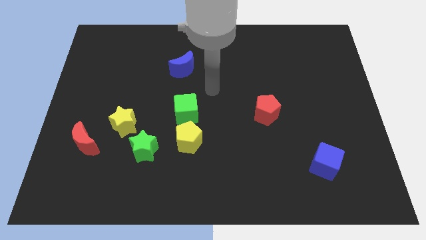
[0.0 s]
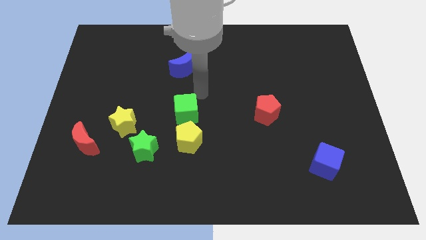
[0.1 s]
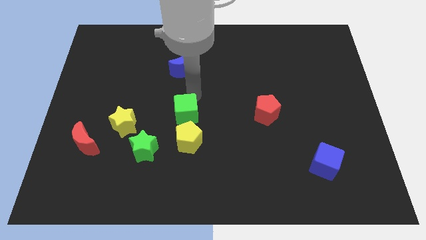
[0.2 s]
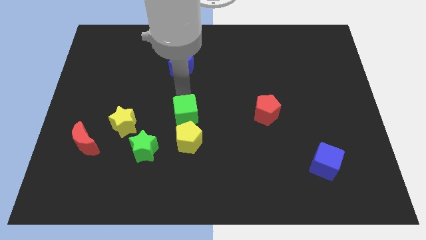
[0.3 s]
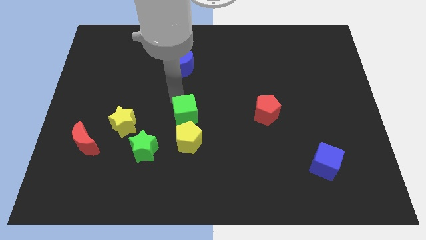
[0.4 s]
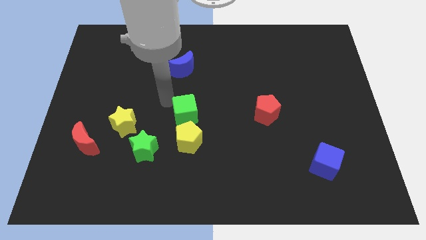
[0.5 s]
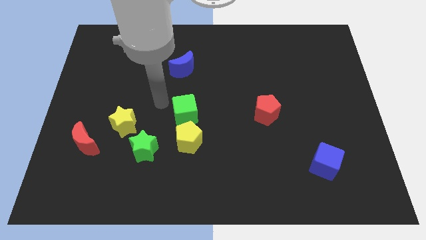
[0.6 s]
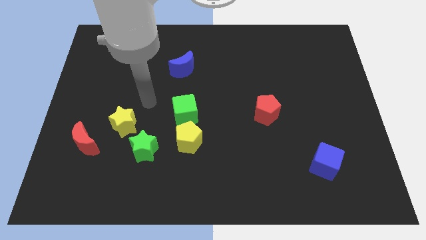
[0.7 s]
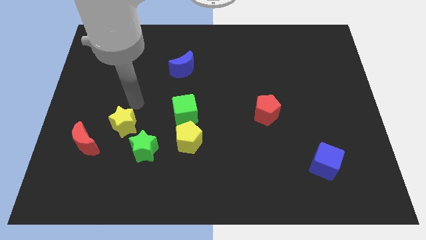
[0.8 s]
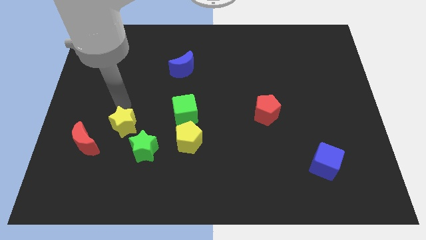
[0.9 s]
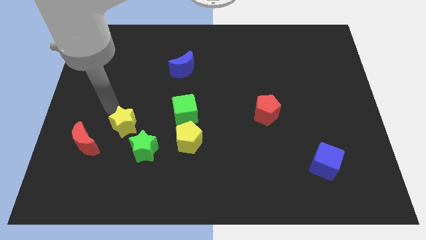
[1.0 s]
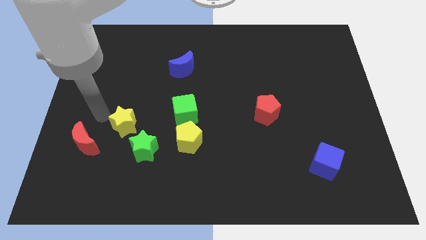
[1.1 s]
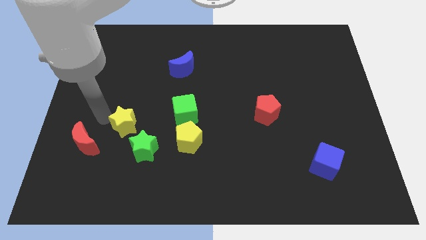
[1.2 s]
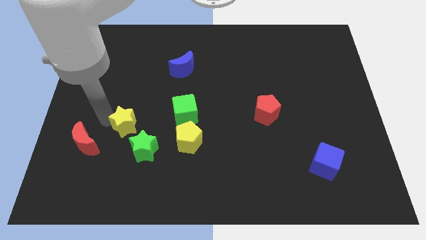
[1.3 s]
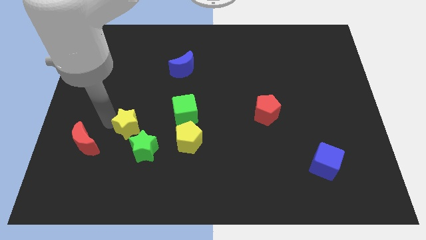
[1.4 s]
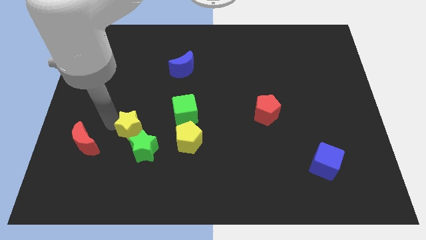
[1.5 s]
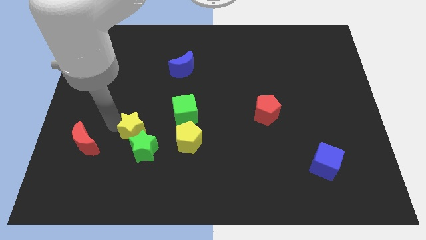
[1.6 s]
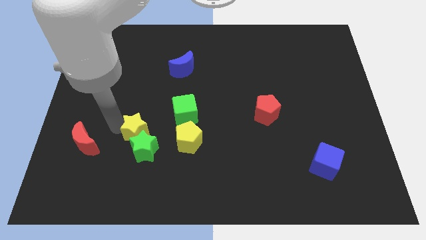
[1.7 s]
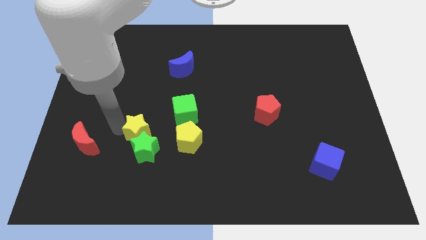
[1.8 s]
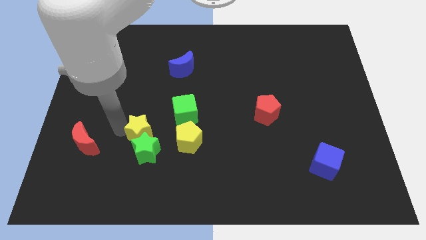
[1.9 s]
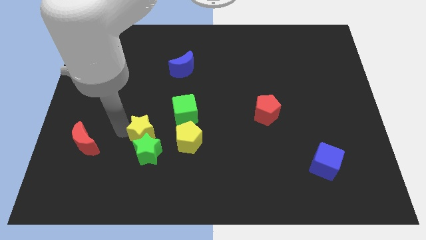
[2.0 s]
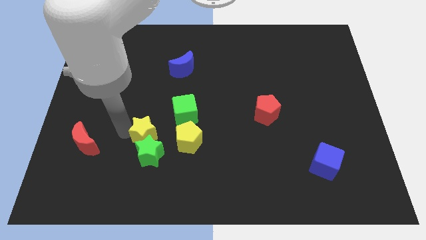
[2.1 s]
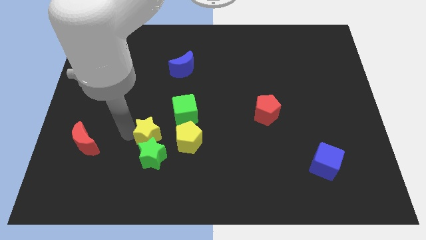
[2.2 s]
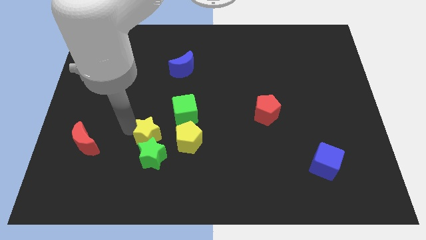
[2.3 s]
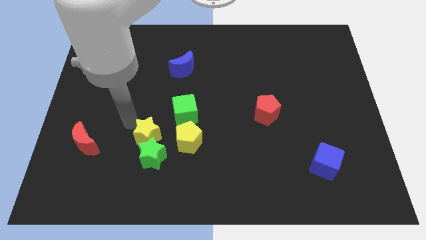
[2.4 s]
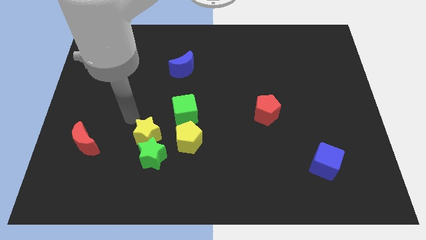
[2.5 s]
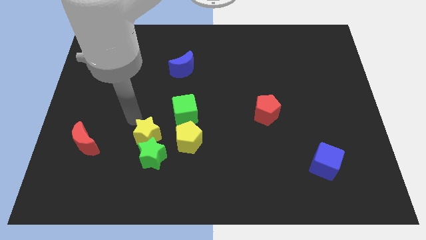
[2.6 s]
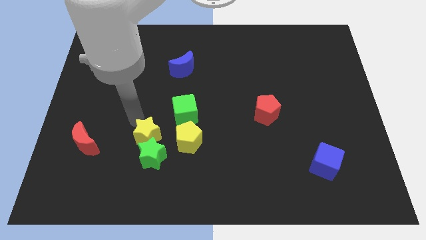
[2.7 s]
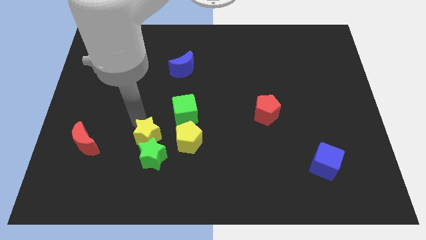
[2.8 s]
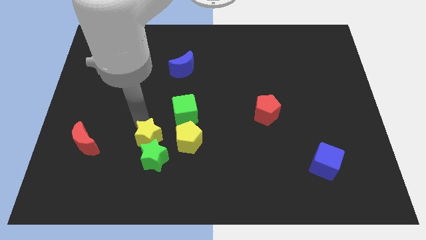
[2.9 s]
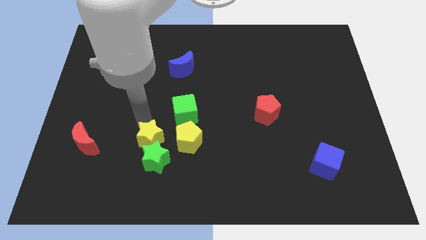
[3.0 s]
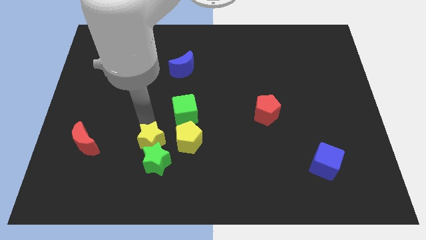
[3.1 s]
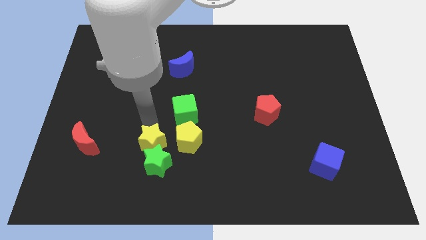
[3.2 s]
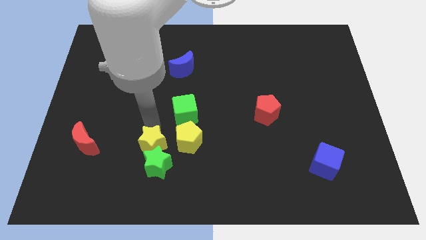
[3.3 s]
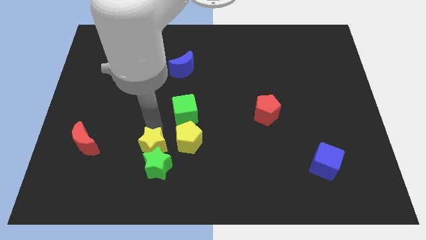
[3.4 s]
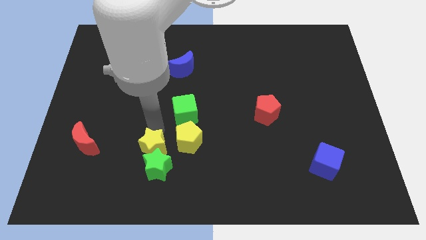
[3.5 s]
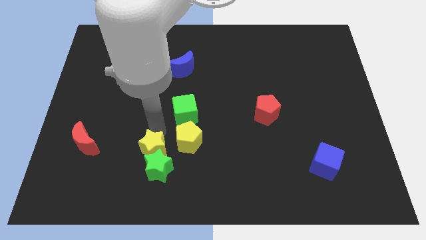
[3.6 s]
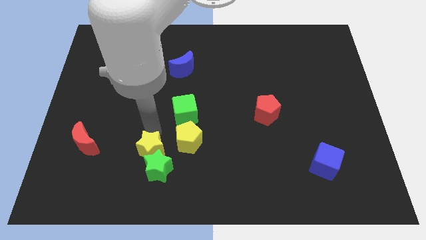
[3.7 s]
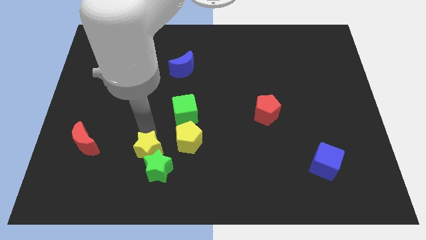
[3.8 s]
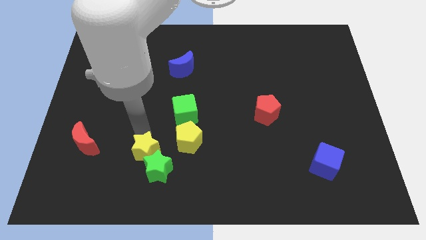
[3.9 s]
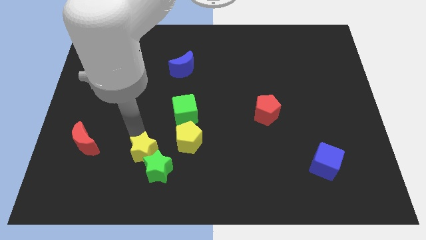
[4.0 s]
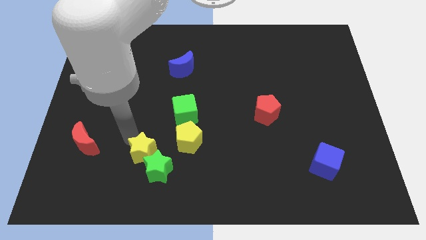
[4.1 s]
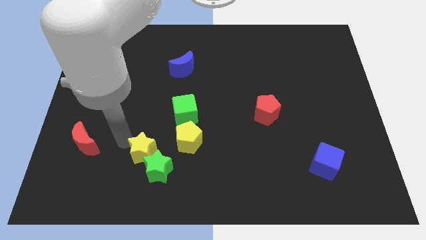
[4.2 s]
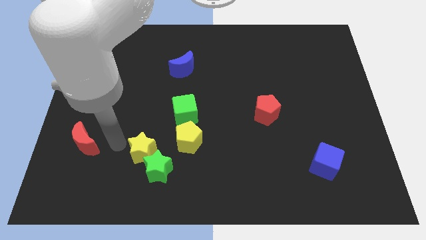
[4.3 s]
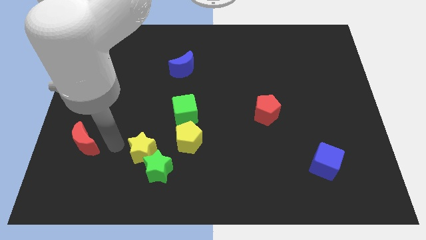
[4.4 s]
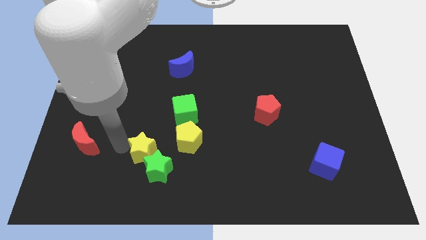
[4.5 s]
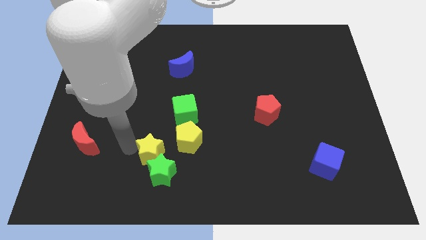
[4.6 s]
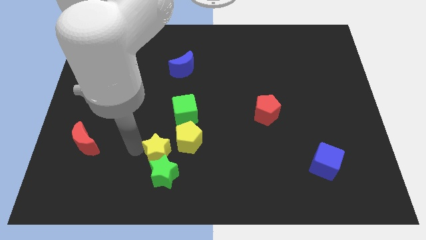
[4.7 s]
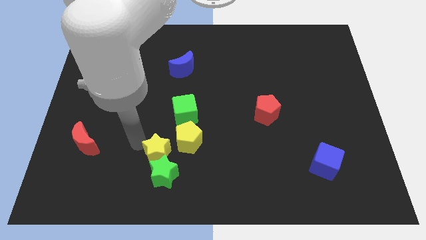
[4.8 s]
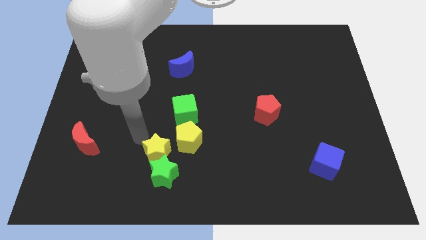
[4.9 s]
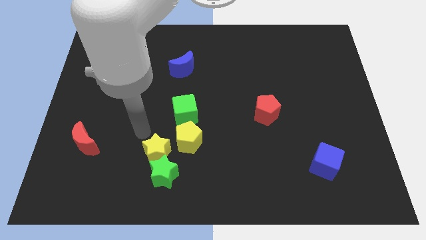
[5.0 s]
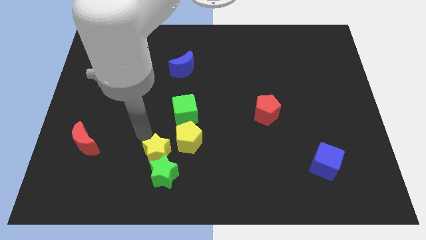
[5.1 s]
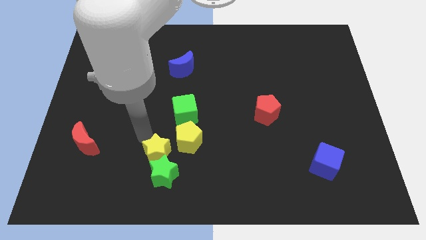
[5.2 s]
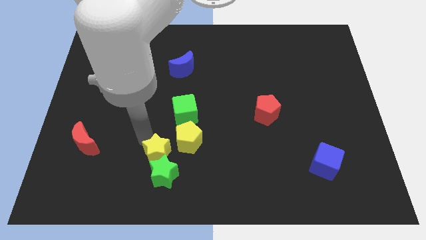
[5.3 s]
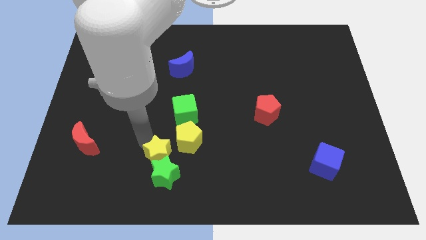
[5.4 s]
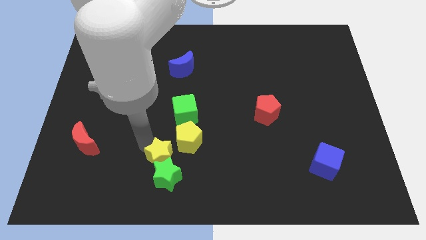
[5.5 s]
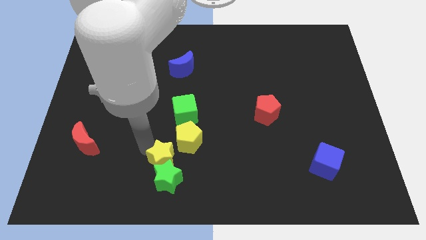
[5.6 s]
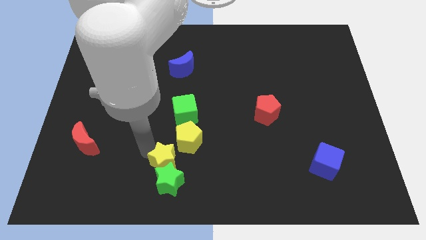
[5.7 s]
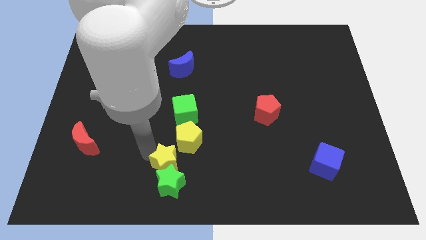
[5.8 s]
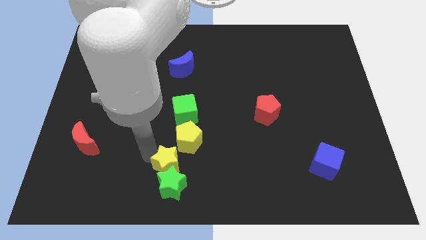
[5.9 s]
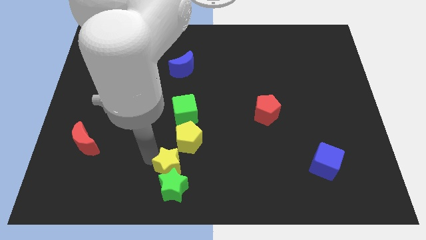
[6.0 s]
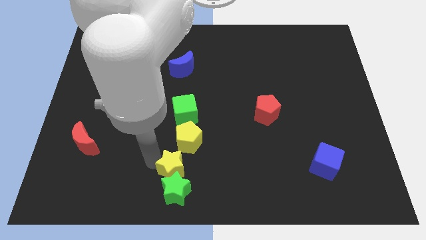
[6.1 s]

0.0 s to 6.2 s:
push the yellow star to the bottom side

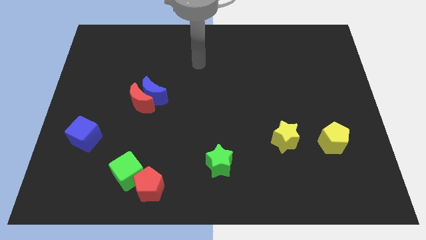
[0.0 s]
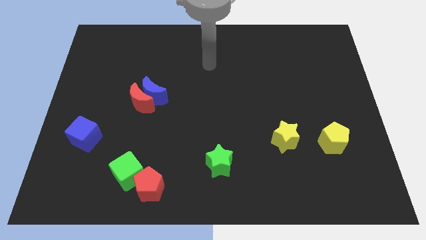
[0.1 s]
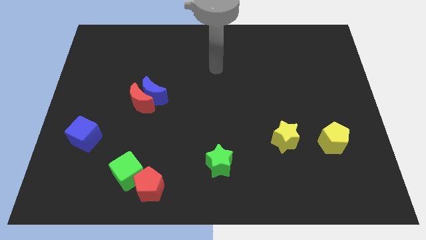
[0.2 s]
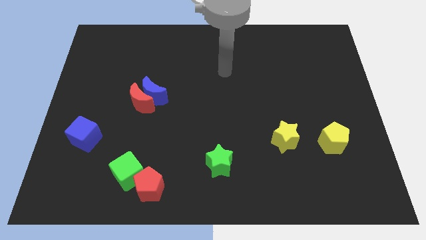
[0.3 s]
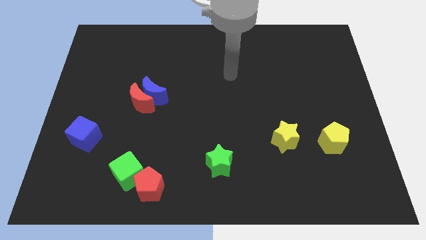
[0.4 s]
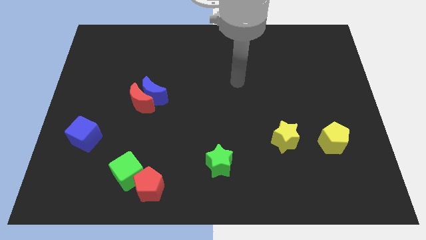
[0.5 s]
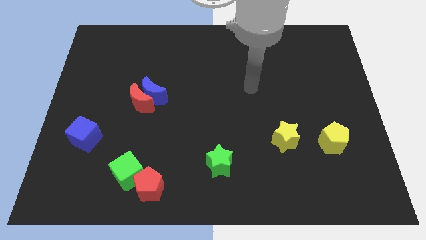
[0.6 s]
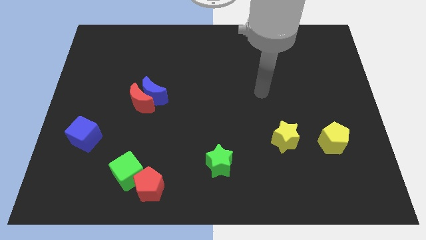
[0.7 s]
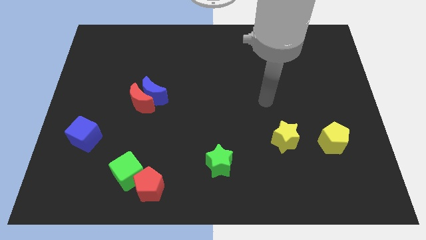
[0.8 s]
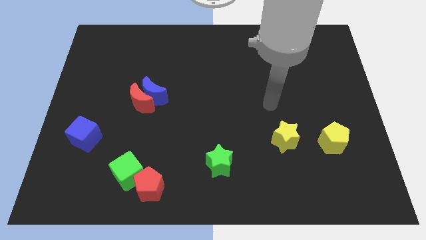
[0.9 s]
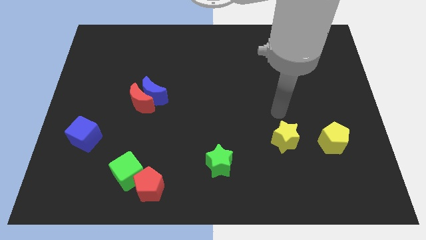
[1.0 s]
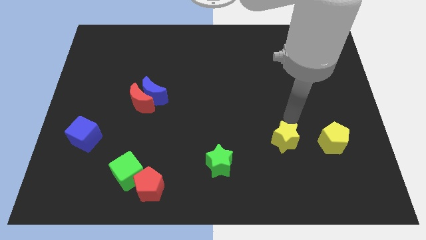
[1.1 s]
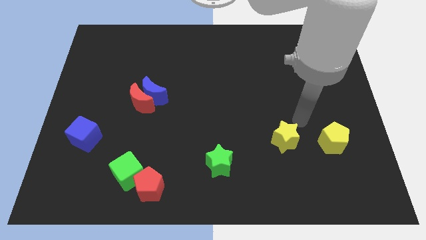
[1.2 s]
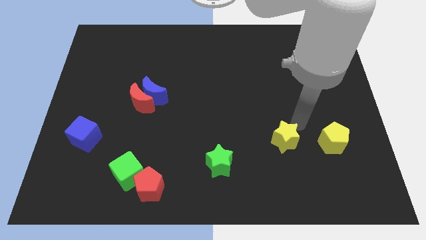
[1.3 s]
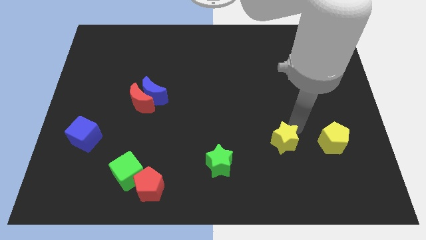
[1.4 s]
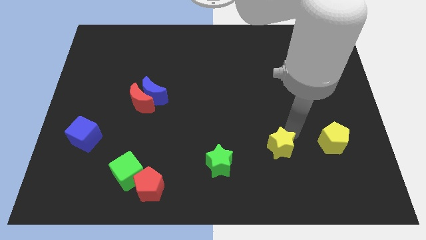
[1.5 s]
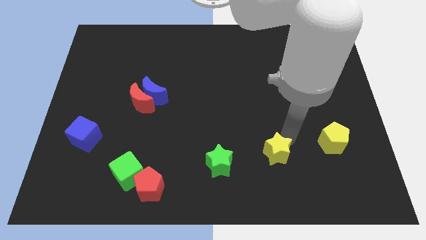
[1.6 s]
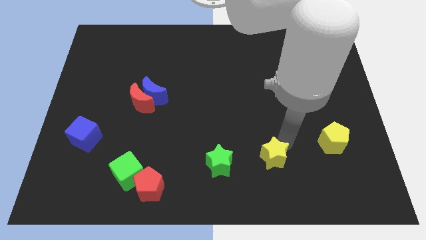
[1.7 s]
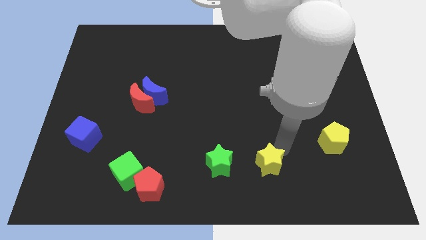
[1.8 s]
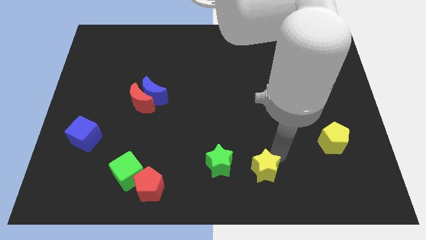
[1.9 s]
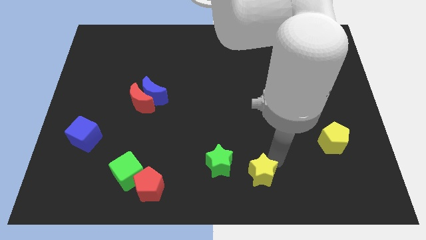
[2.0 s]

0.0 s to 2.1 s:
move the yellow star to the bottom side
